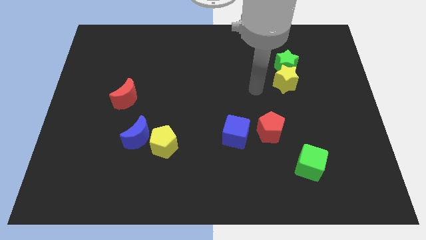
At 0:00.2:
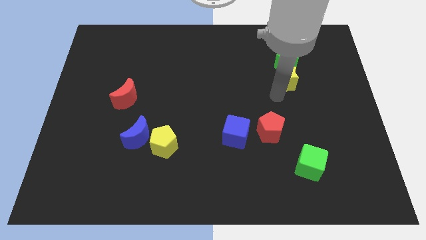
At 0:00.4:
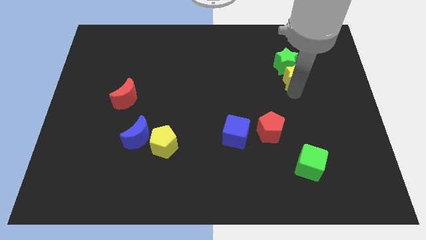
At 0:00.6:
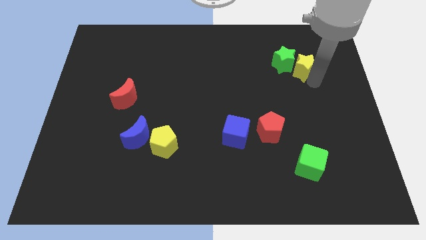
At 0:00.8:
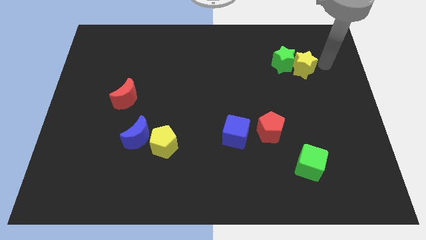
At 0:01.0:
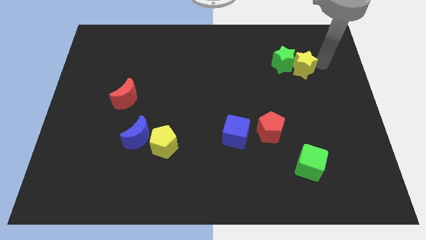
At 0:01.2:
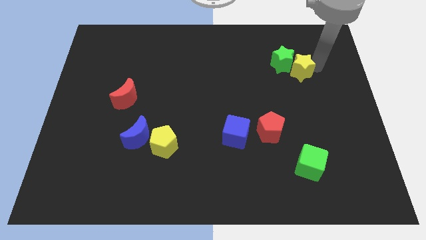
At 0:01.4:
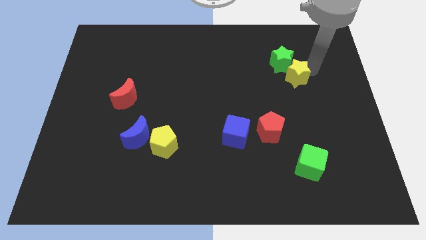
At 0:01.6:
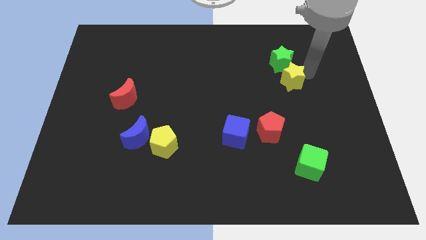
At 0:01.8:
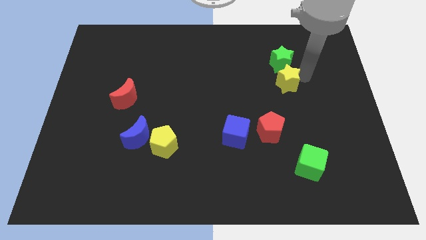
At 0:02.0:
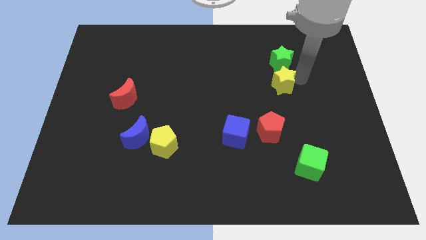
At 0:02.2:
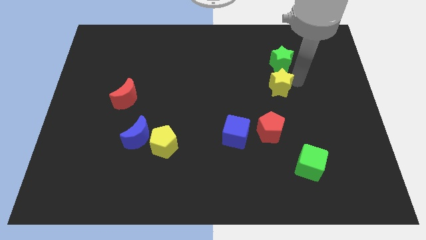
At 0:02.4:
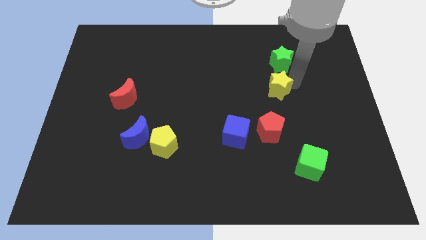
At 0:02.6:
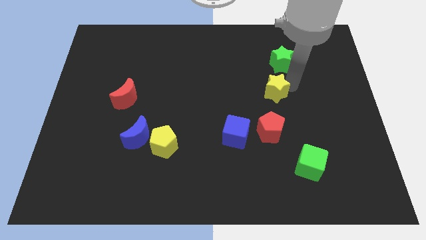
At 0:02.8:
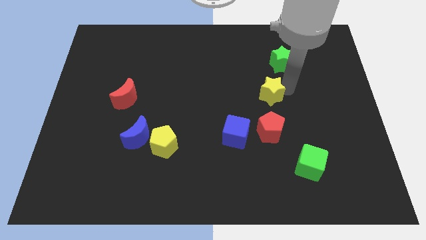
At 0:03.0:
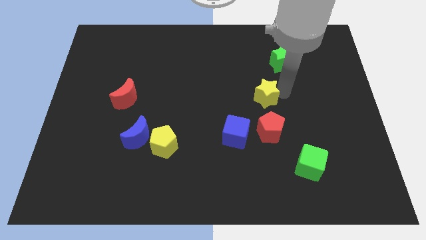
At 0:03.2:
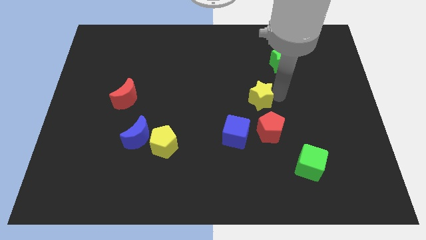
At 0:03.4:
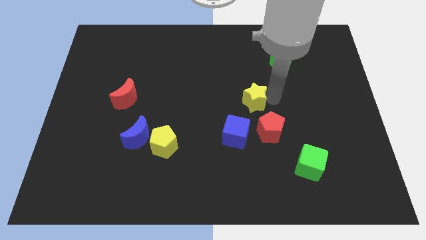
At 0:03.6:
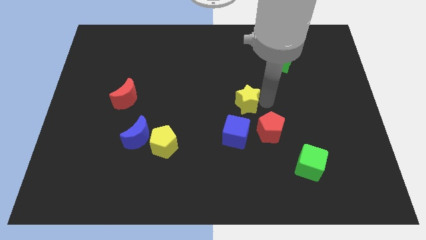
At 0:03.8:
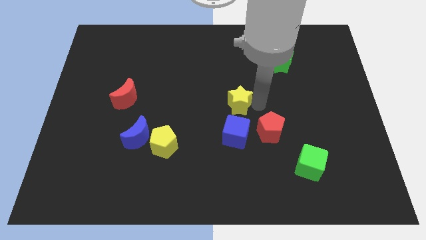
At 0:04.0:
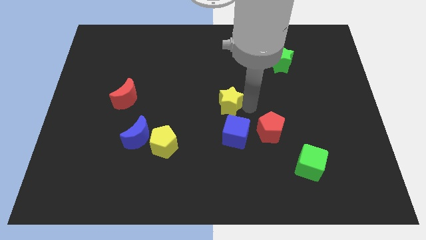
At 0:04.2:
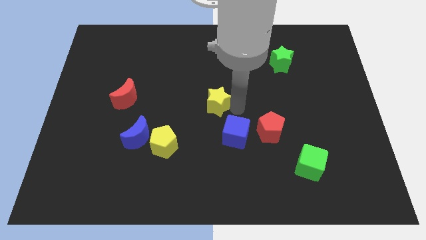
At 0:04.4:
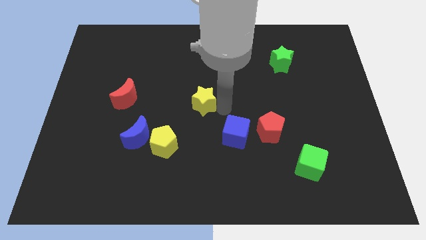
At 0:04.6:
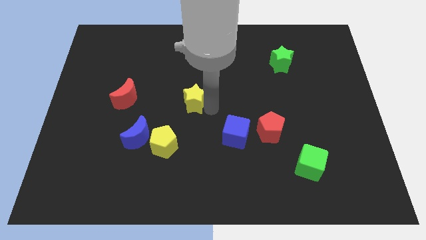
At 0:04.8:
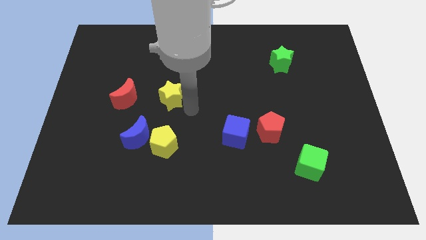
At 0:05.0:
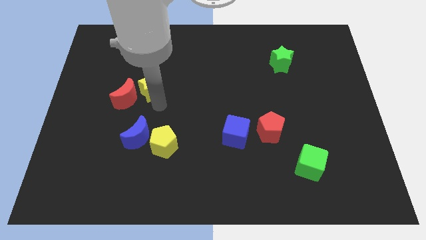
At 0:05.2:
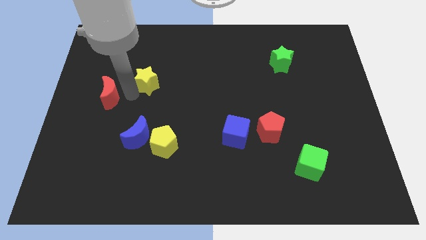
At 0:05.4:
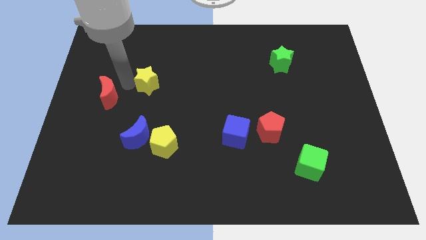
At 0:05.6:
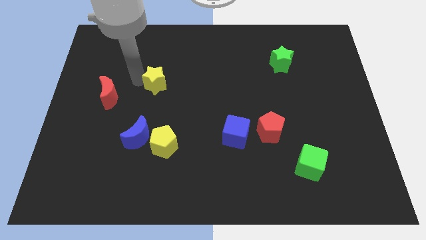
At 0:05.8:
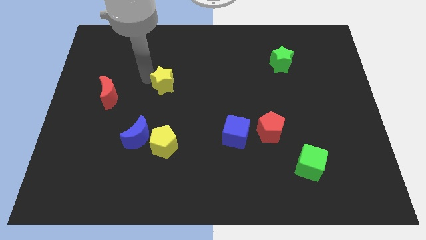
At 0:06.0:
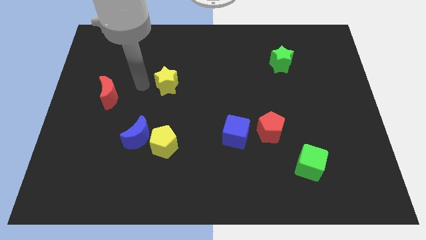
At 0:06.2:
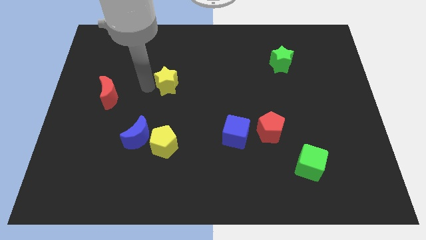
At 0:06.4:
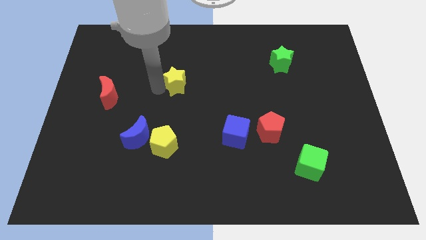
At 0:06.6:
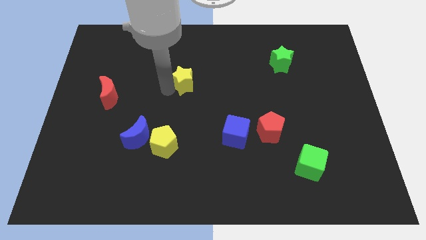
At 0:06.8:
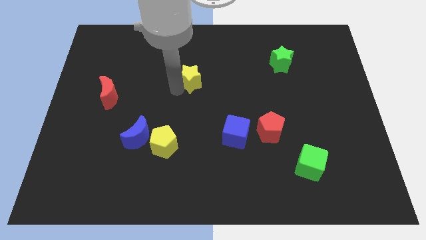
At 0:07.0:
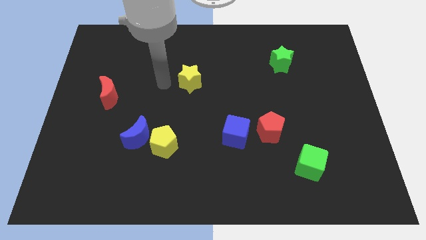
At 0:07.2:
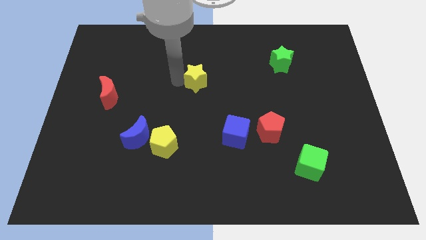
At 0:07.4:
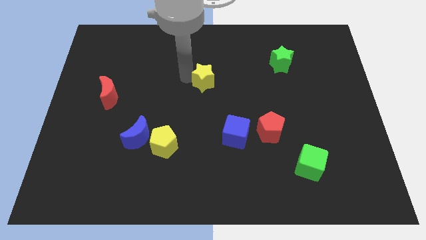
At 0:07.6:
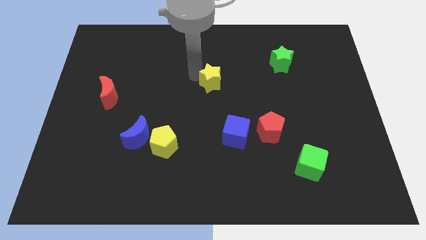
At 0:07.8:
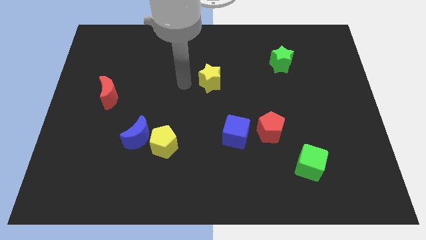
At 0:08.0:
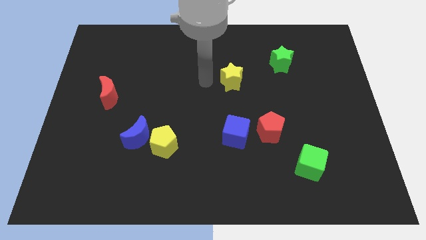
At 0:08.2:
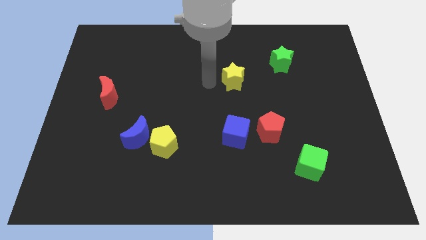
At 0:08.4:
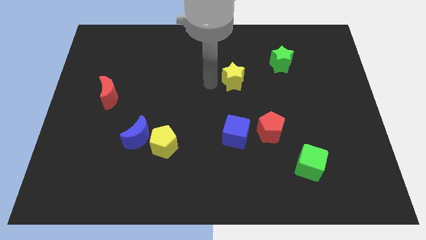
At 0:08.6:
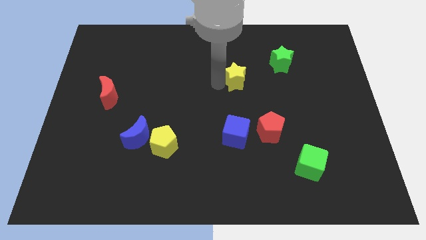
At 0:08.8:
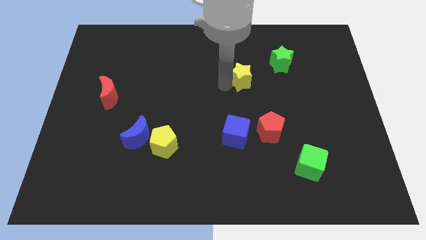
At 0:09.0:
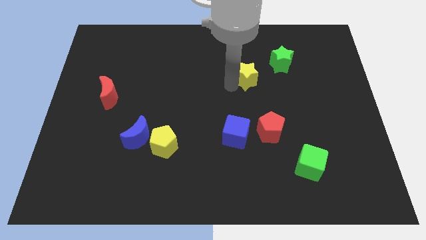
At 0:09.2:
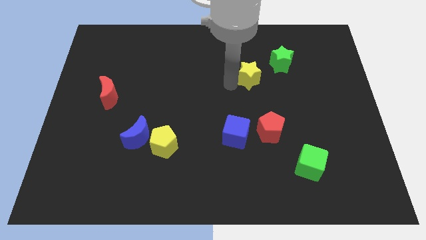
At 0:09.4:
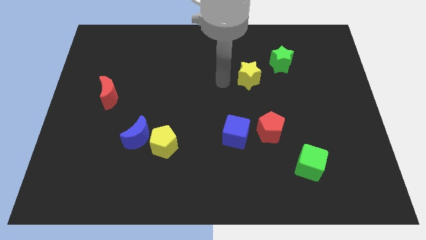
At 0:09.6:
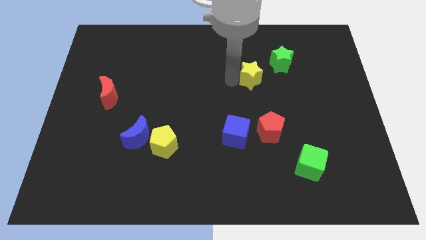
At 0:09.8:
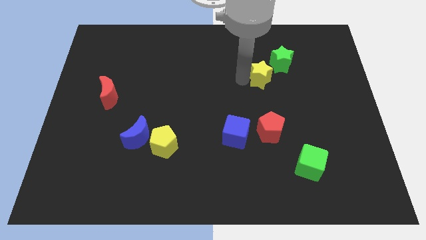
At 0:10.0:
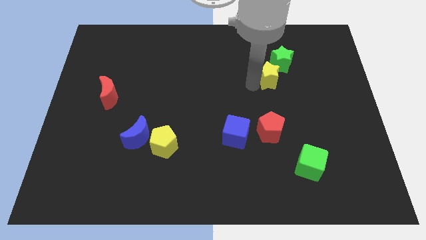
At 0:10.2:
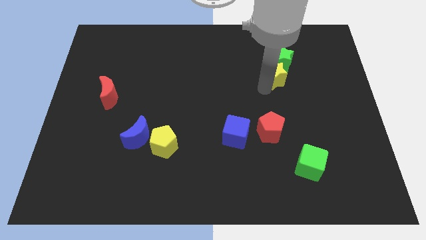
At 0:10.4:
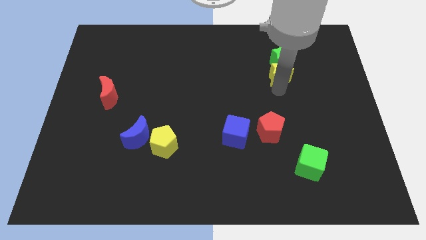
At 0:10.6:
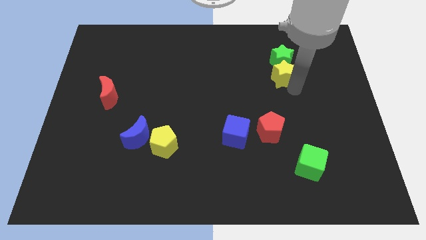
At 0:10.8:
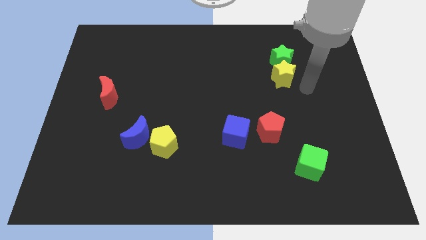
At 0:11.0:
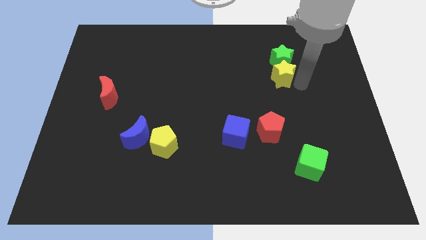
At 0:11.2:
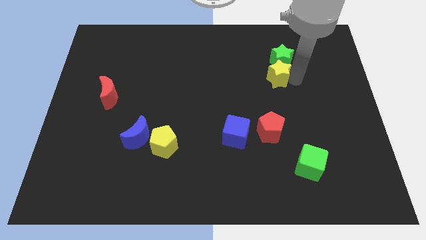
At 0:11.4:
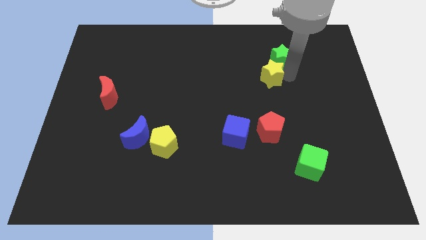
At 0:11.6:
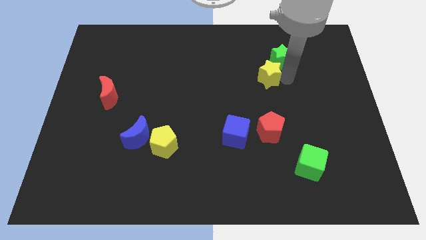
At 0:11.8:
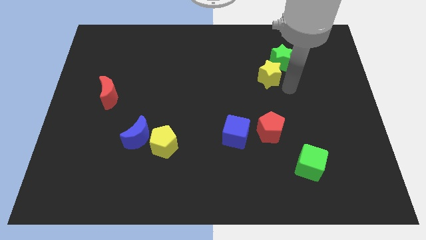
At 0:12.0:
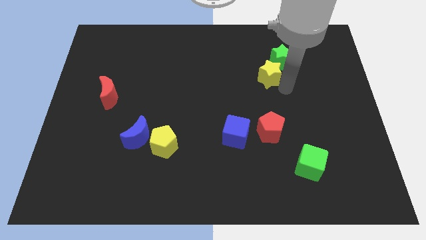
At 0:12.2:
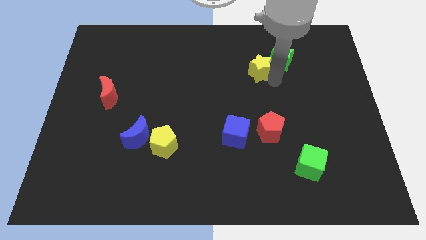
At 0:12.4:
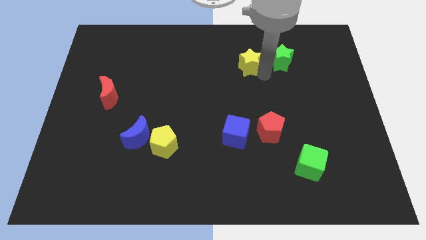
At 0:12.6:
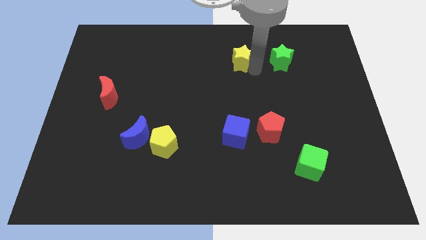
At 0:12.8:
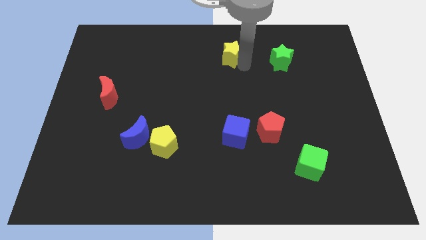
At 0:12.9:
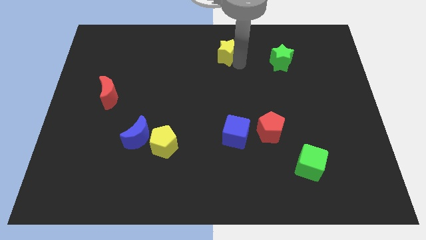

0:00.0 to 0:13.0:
put the yellow star to the towards your base
